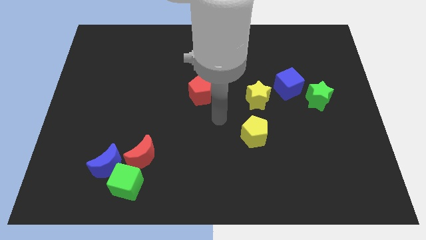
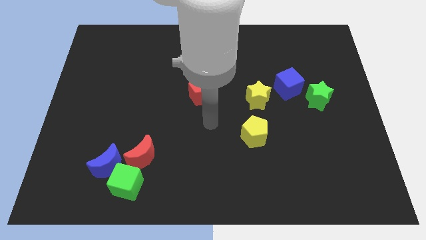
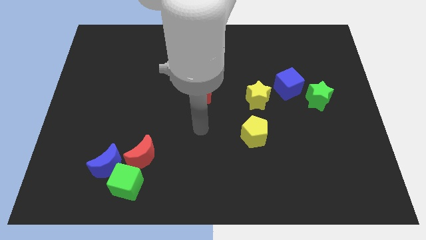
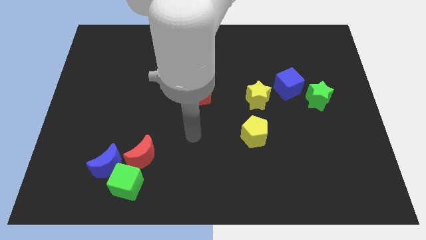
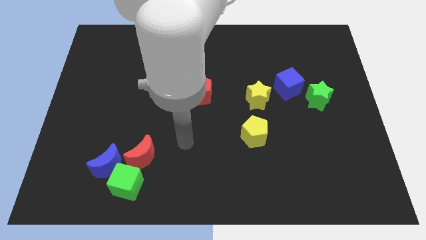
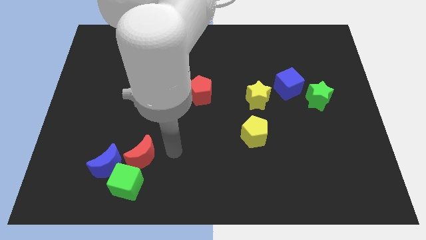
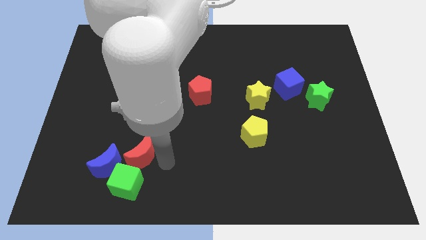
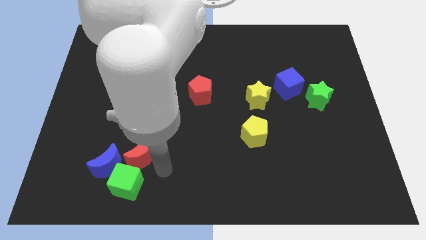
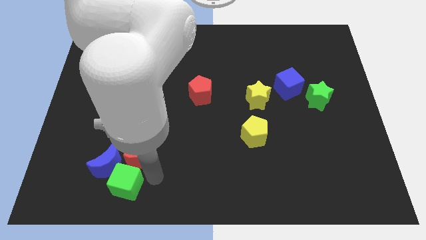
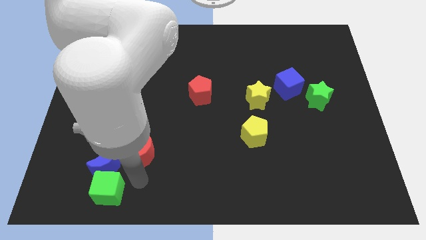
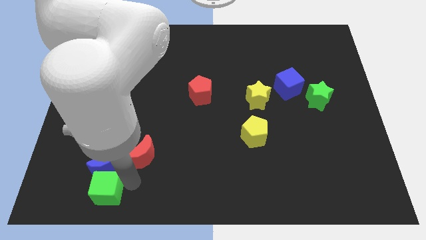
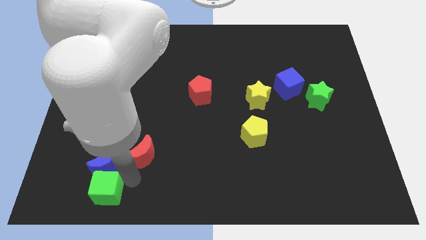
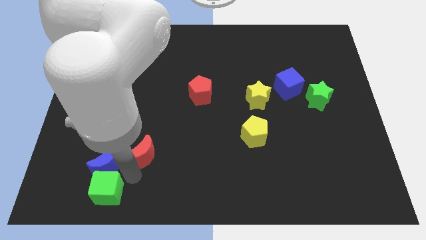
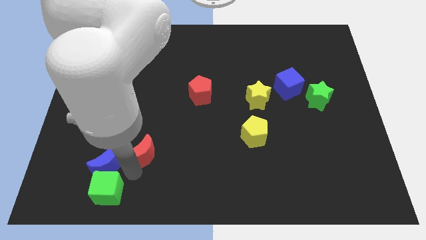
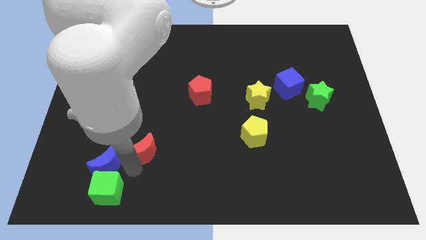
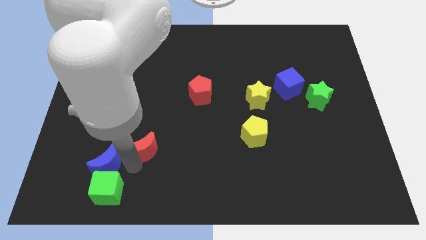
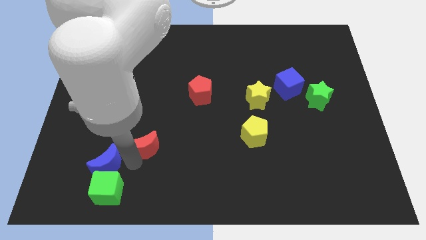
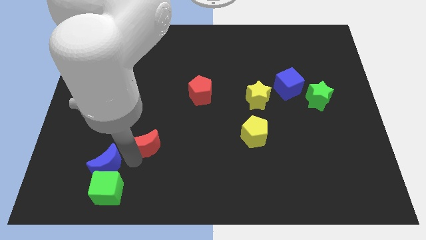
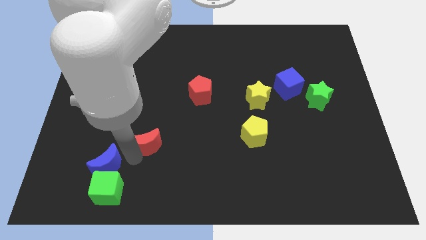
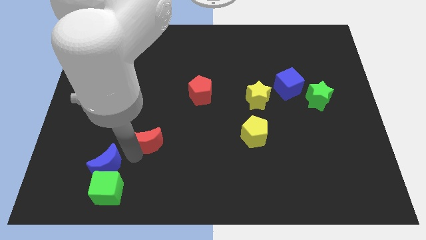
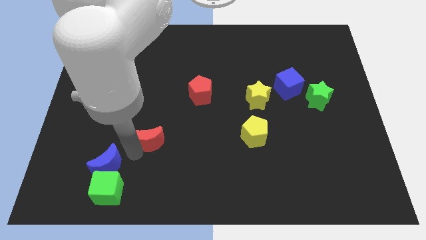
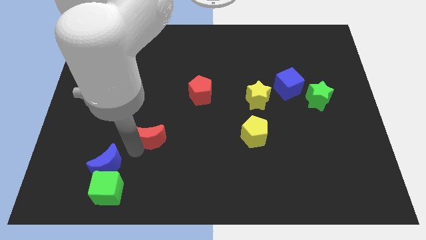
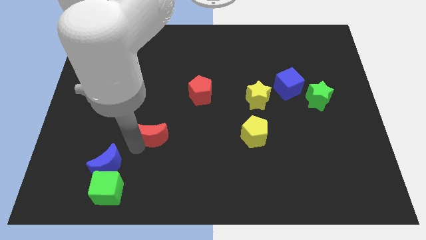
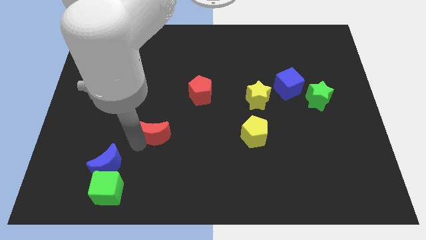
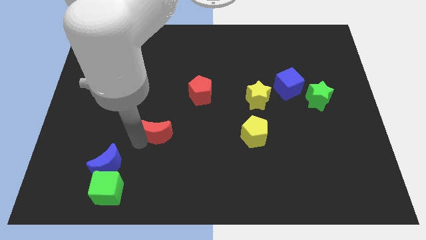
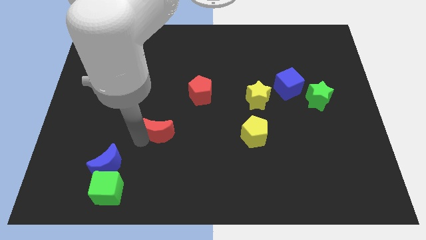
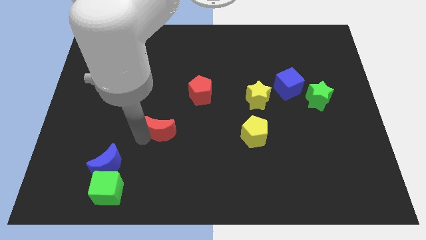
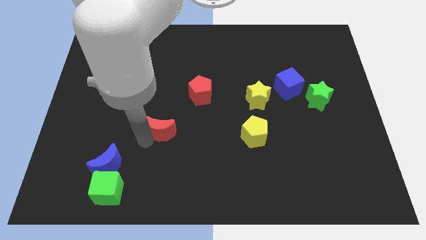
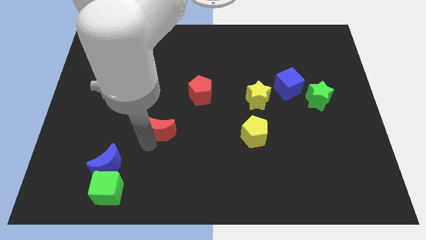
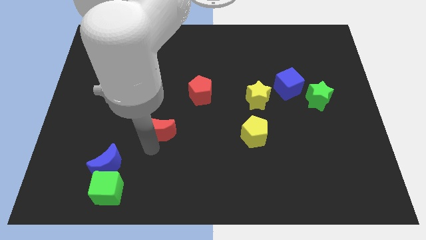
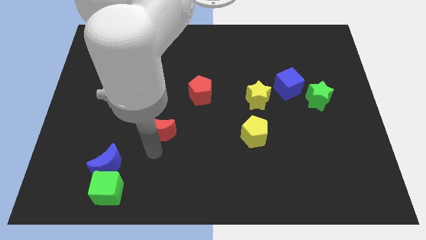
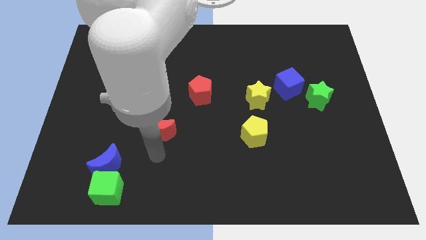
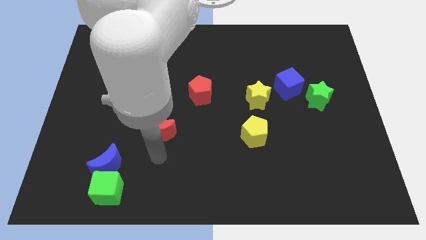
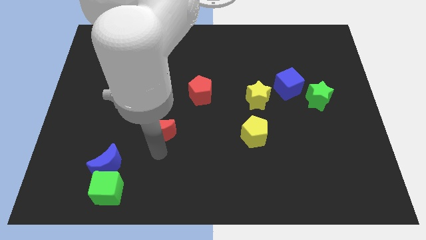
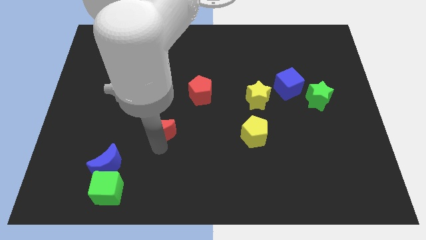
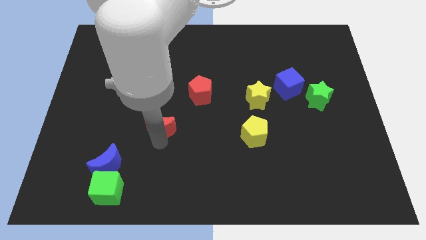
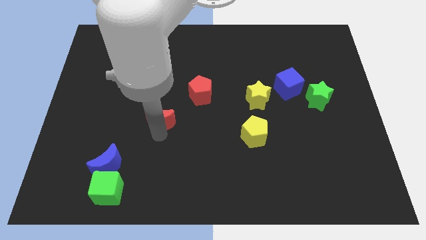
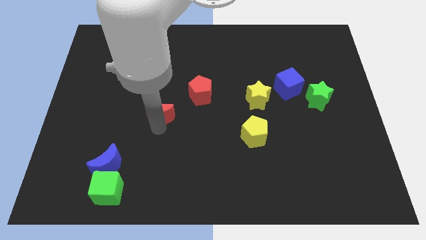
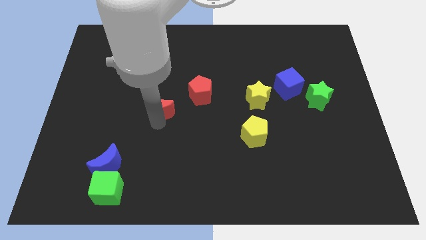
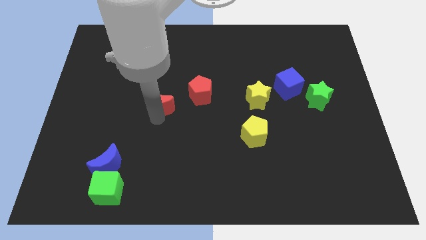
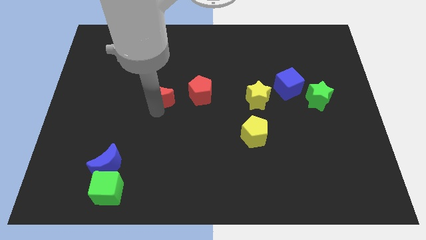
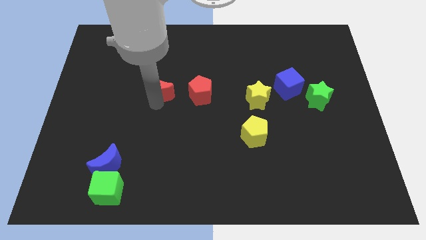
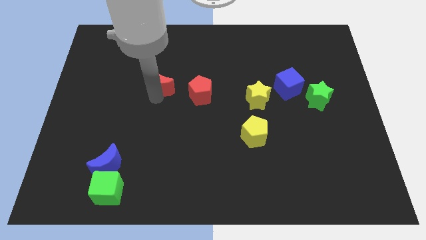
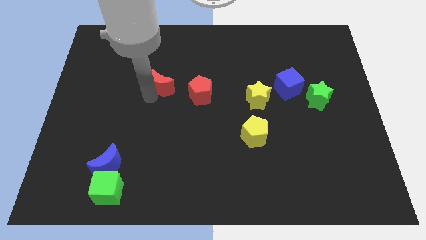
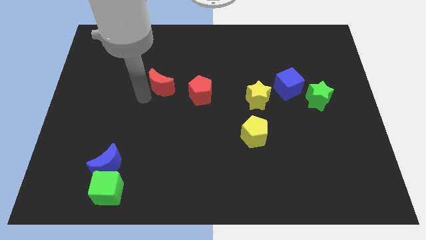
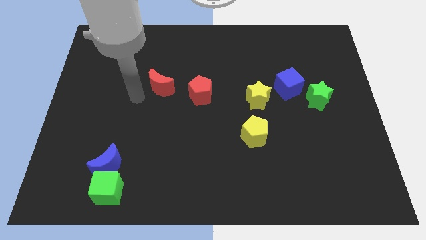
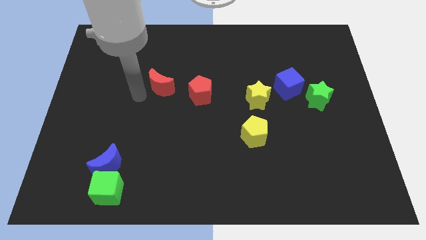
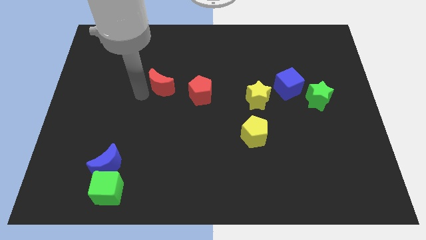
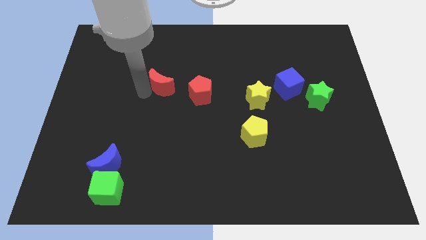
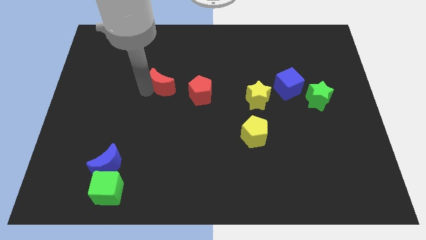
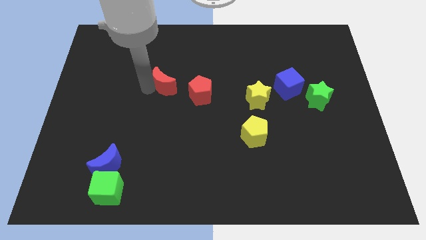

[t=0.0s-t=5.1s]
slide the red moon to the top left side of the red pentagon

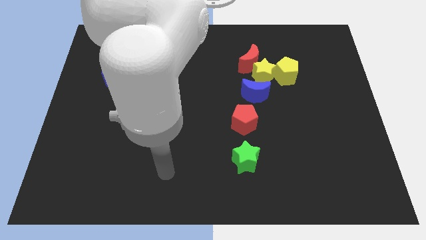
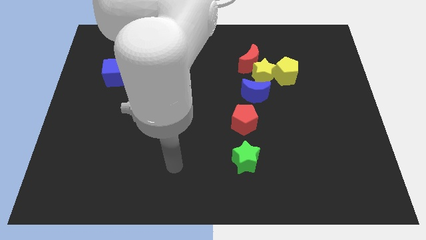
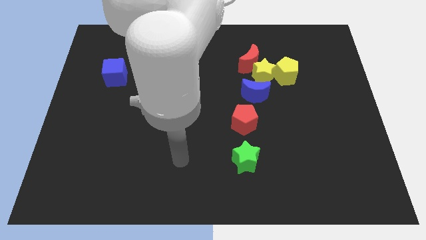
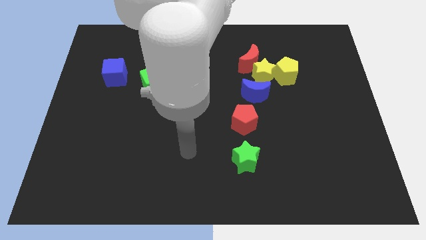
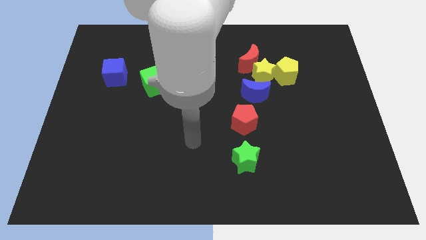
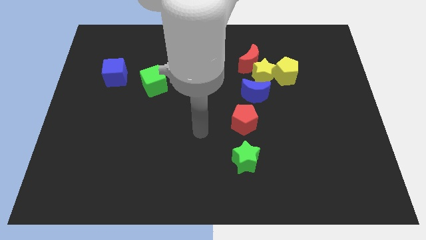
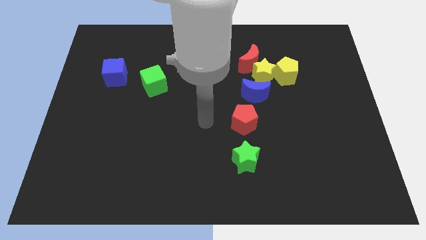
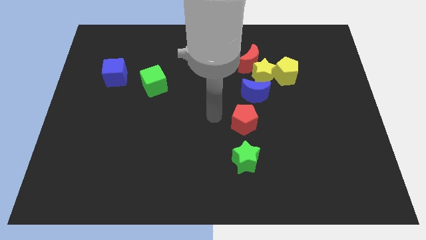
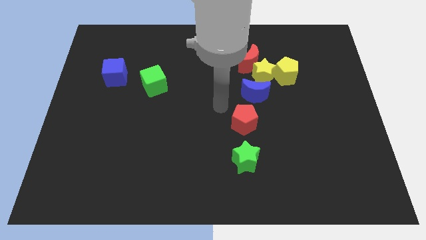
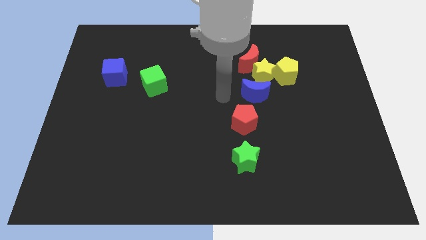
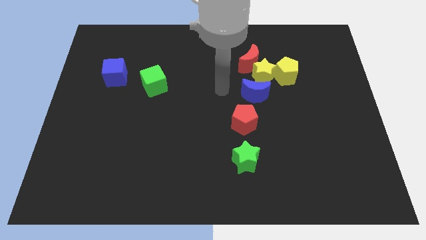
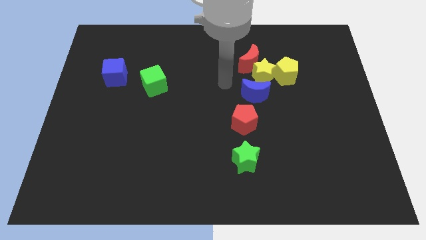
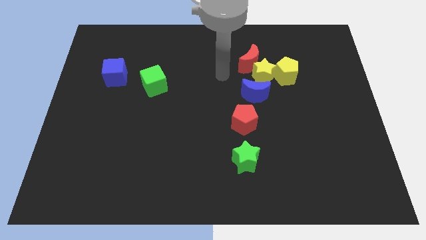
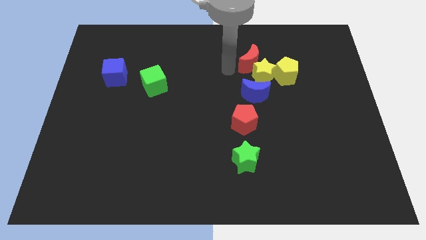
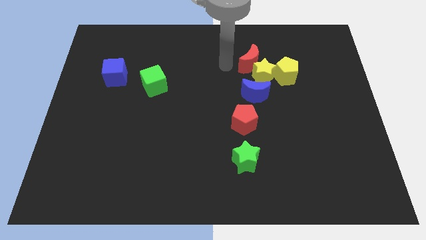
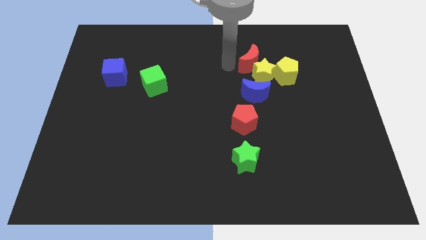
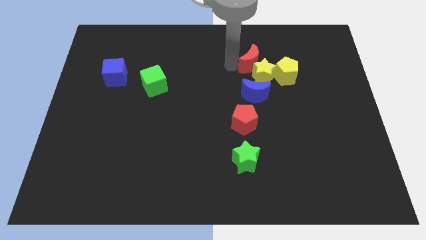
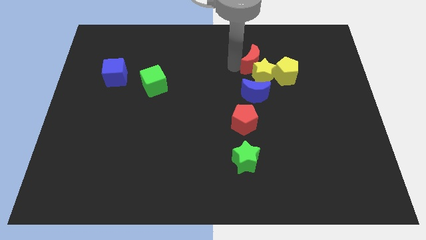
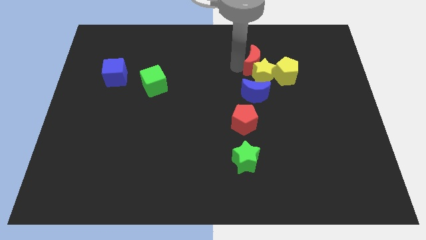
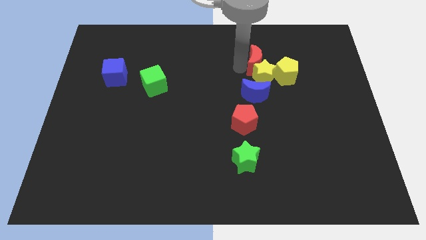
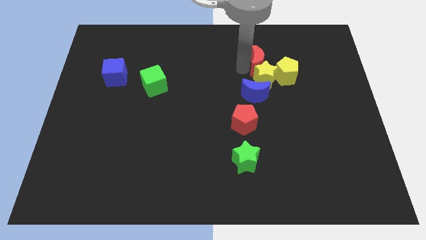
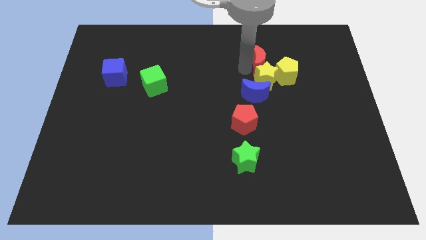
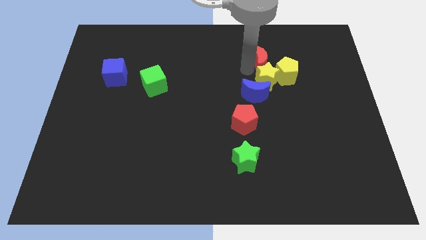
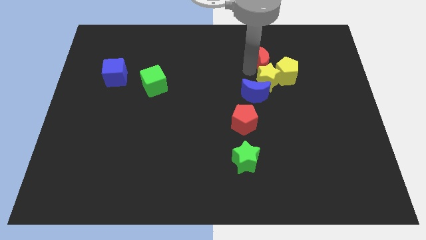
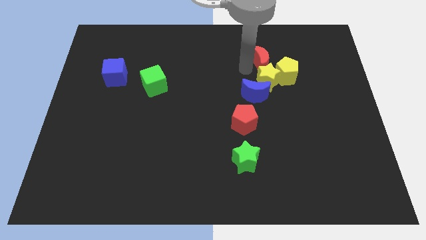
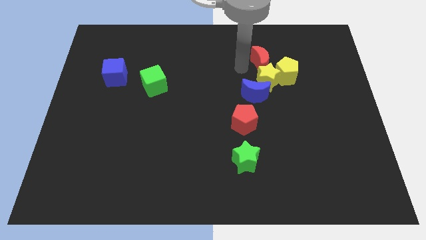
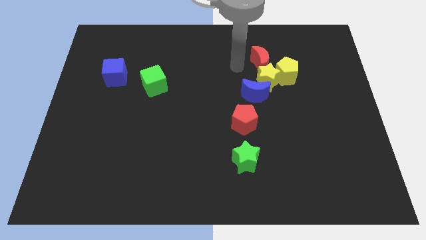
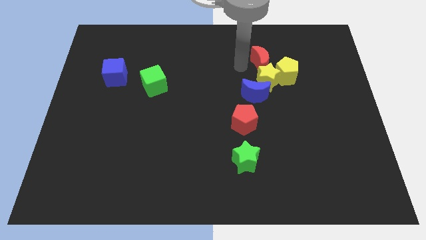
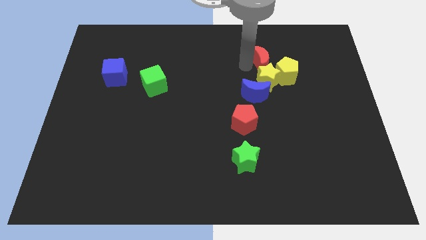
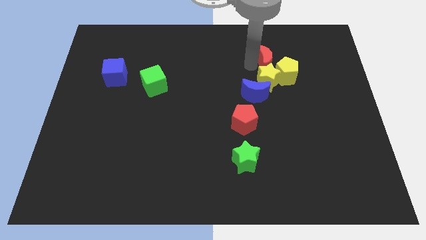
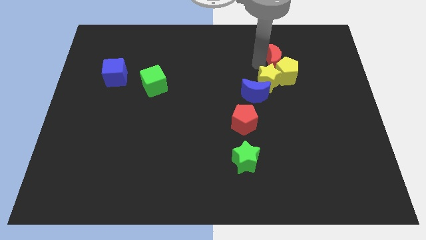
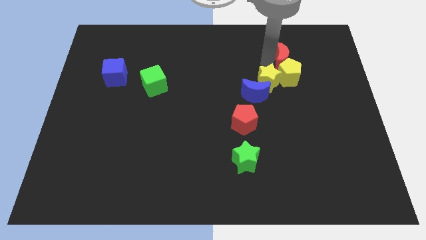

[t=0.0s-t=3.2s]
put the red moon to the top right side of the yellow pentagon
